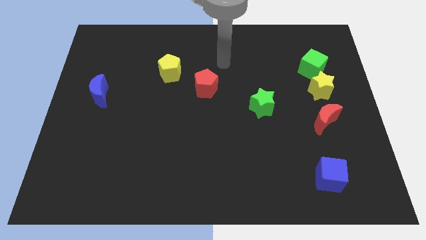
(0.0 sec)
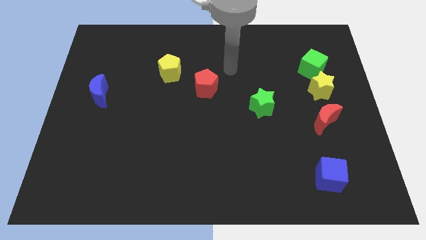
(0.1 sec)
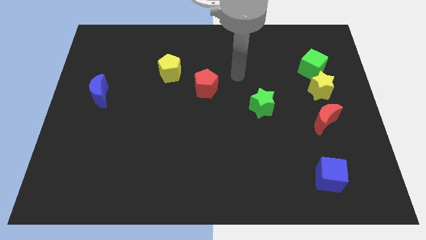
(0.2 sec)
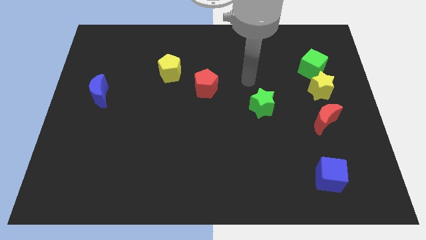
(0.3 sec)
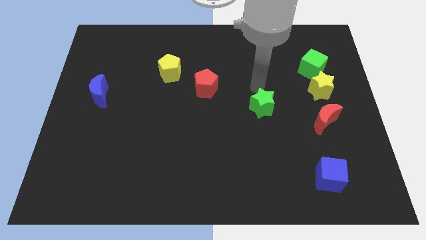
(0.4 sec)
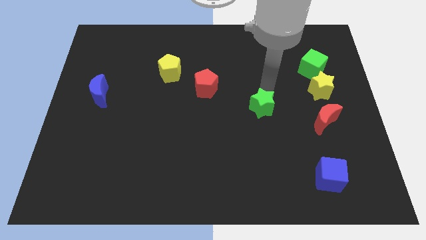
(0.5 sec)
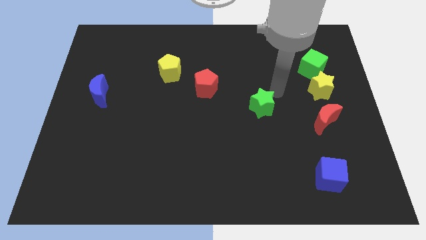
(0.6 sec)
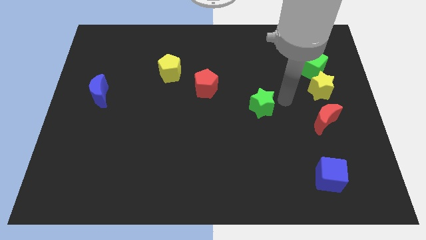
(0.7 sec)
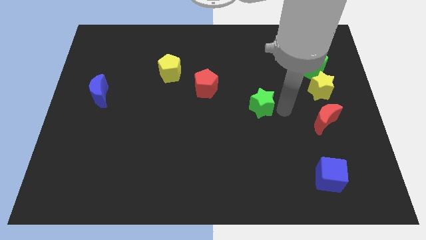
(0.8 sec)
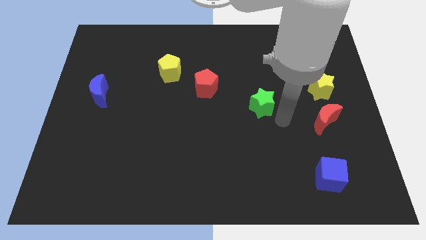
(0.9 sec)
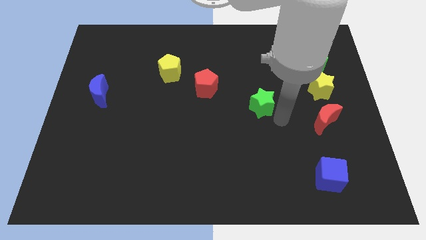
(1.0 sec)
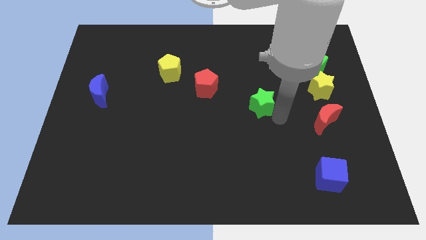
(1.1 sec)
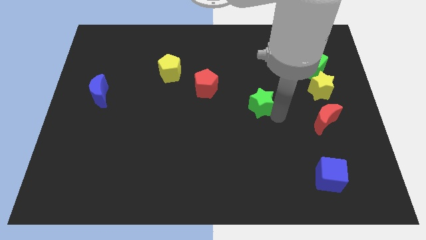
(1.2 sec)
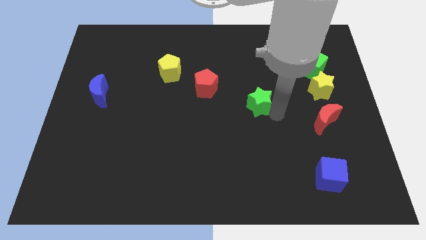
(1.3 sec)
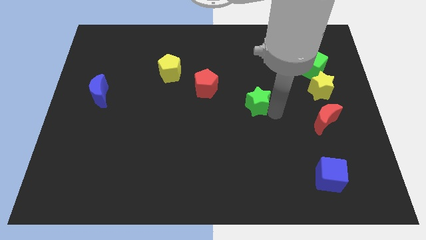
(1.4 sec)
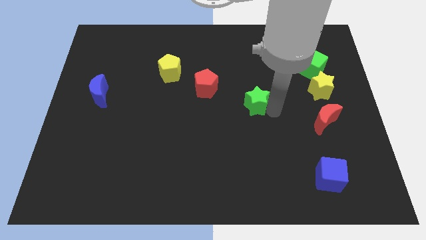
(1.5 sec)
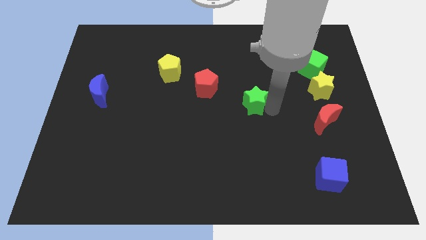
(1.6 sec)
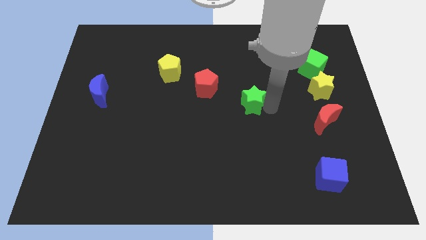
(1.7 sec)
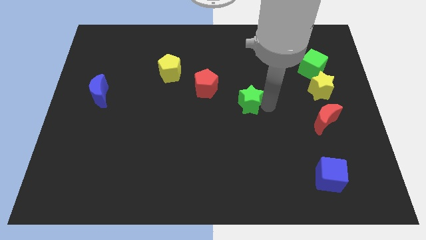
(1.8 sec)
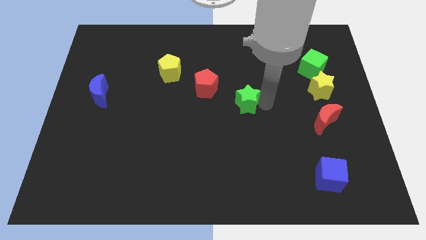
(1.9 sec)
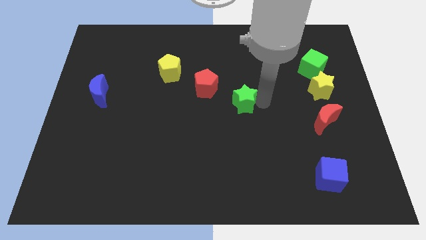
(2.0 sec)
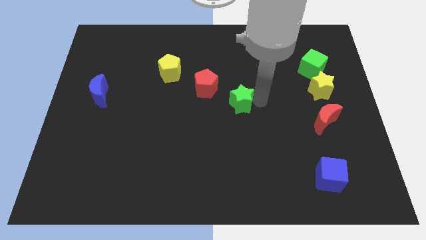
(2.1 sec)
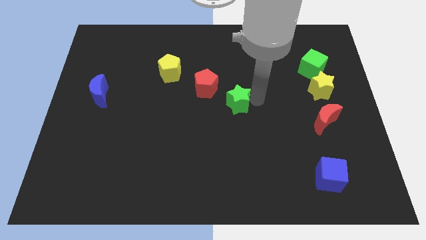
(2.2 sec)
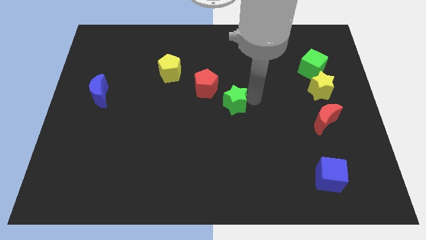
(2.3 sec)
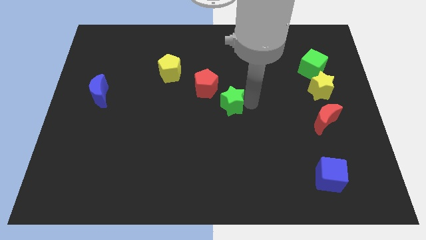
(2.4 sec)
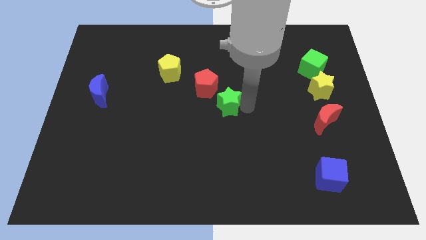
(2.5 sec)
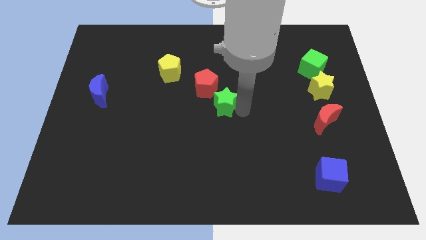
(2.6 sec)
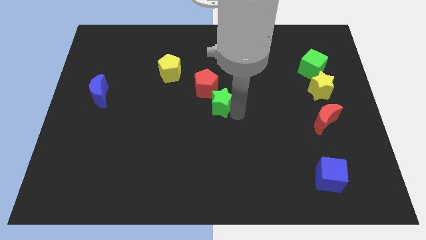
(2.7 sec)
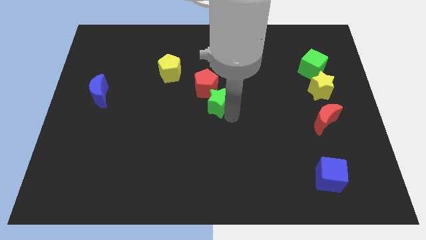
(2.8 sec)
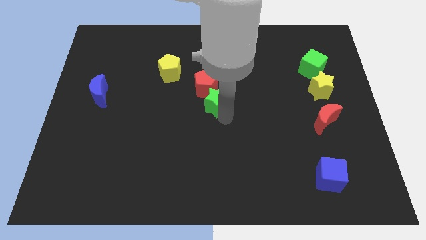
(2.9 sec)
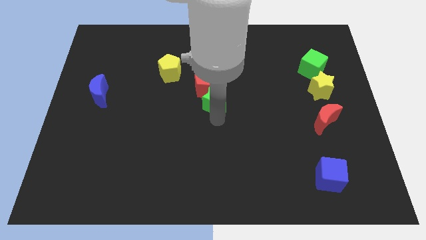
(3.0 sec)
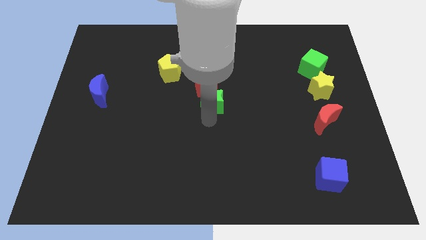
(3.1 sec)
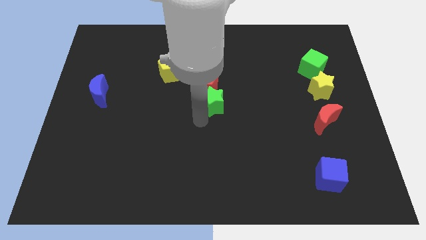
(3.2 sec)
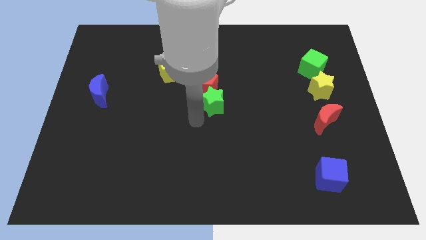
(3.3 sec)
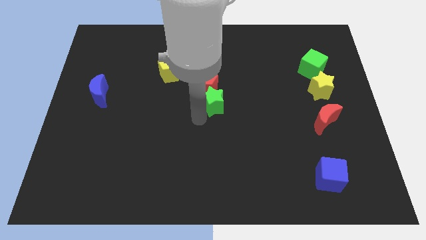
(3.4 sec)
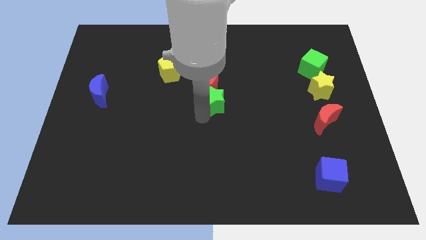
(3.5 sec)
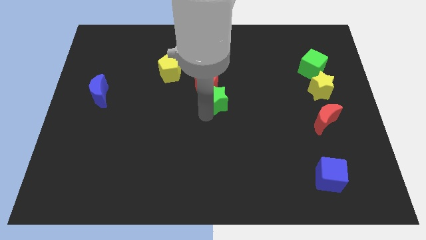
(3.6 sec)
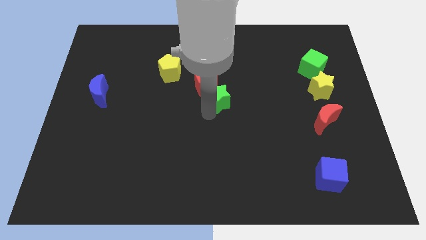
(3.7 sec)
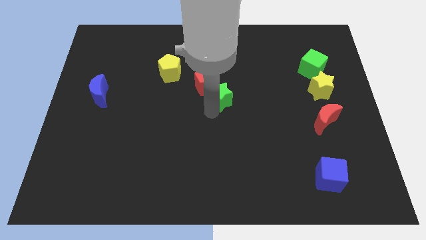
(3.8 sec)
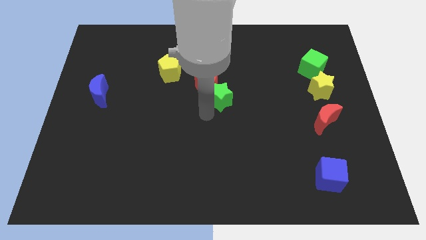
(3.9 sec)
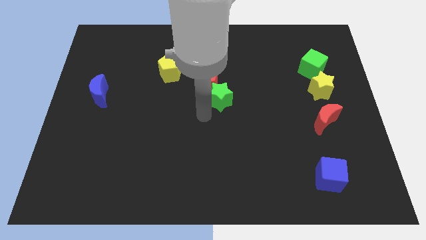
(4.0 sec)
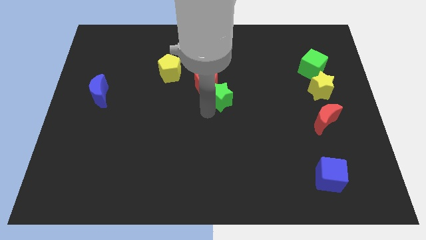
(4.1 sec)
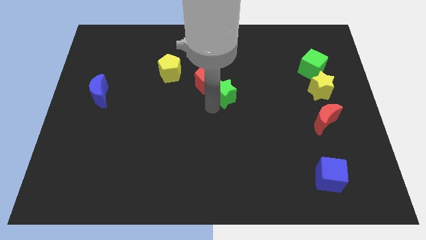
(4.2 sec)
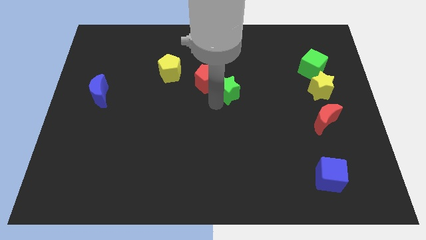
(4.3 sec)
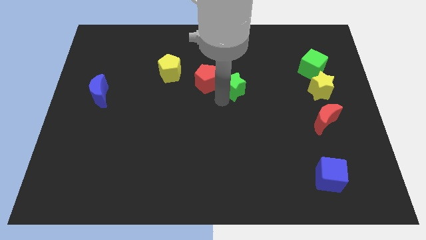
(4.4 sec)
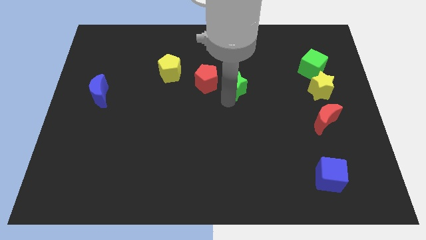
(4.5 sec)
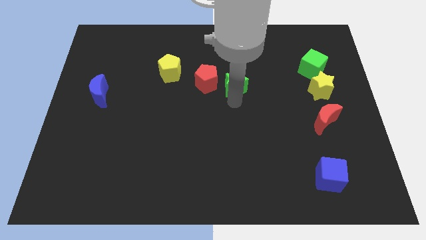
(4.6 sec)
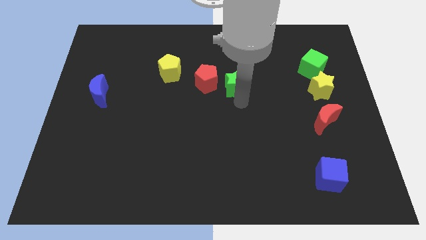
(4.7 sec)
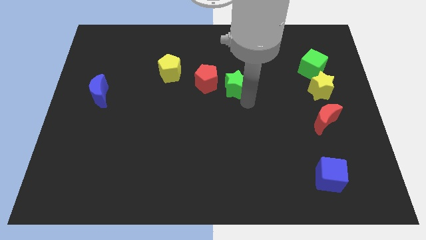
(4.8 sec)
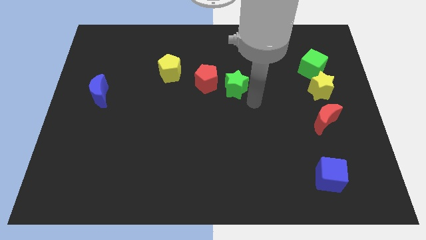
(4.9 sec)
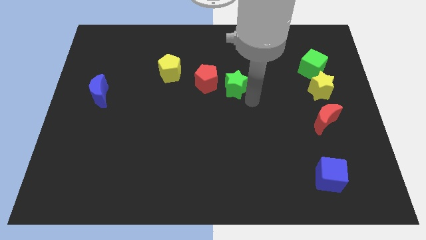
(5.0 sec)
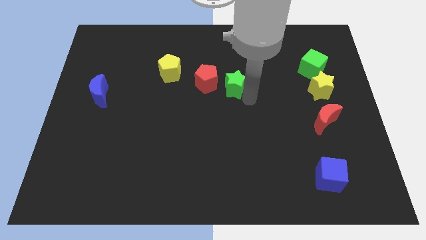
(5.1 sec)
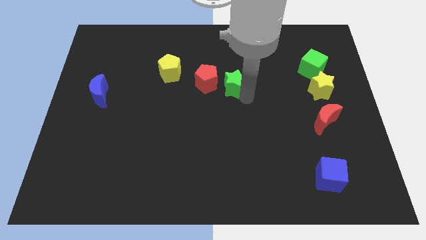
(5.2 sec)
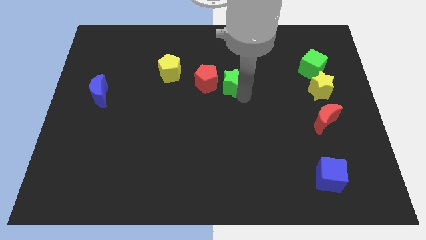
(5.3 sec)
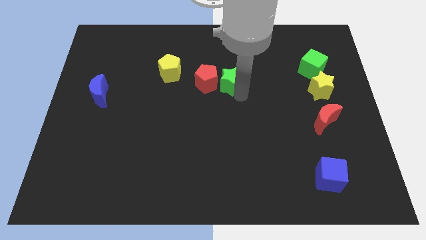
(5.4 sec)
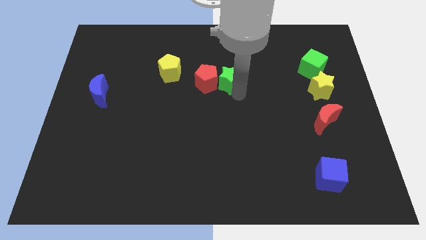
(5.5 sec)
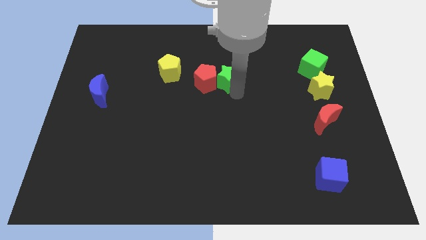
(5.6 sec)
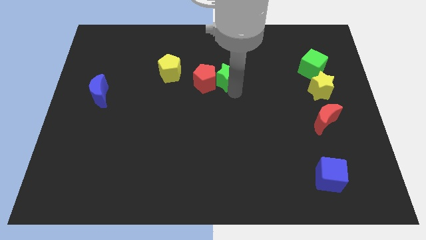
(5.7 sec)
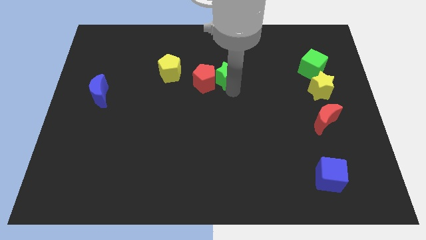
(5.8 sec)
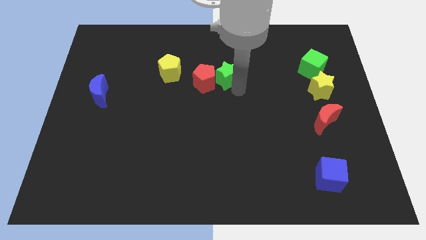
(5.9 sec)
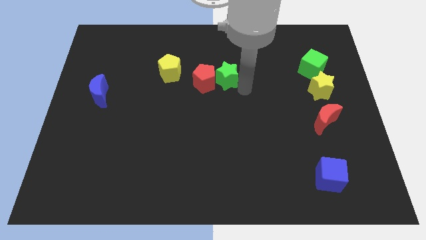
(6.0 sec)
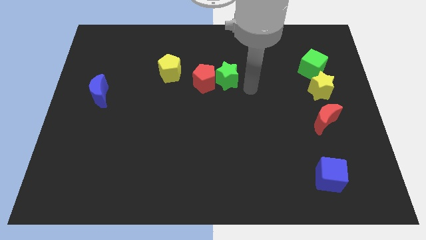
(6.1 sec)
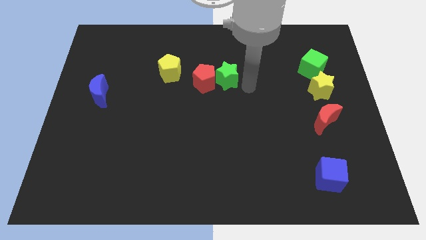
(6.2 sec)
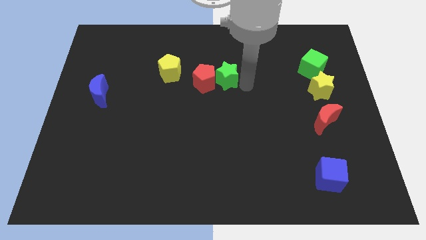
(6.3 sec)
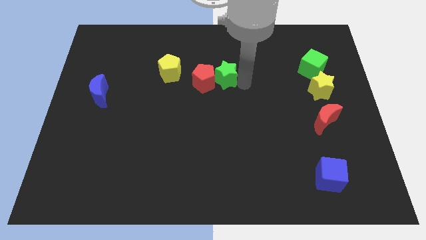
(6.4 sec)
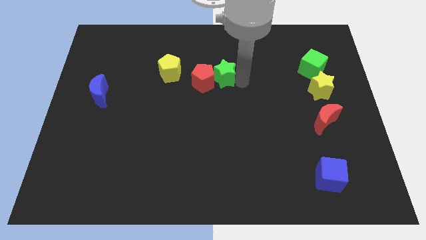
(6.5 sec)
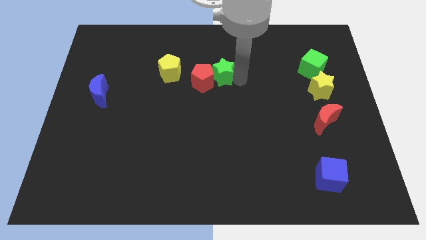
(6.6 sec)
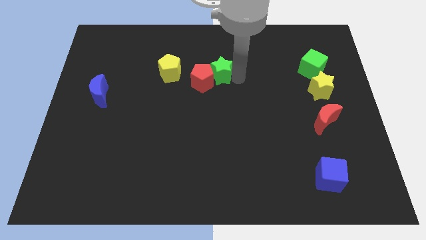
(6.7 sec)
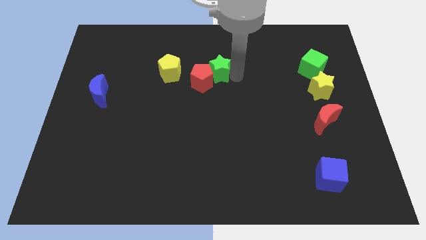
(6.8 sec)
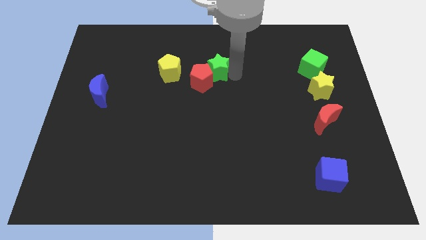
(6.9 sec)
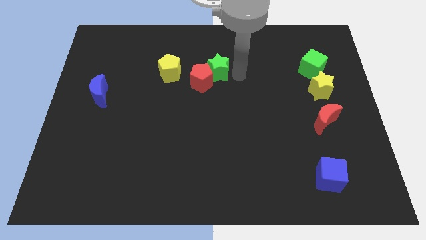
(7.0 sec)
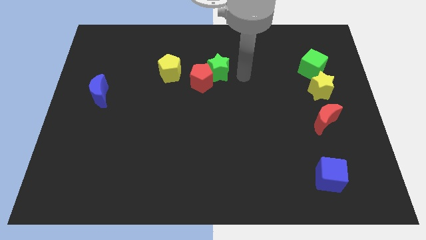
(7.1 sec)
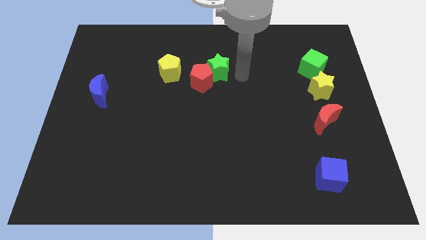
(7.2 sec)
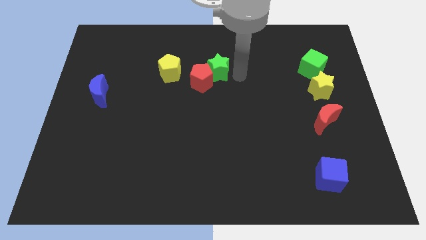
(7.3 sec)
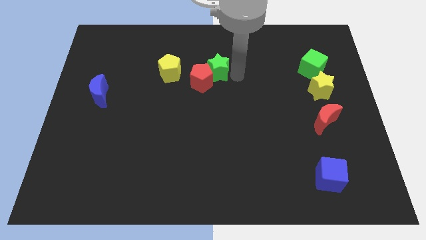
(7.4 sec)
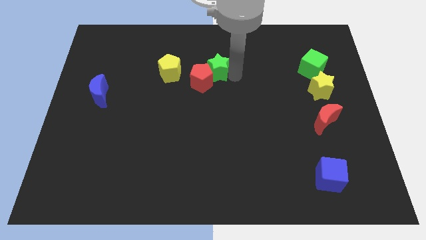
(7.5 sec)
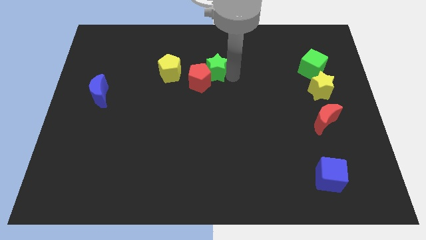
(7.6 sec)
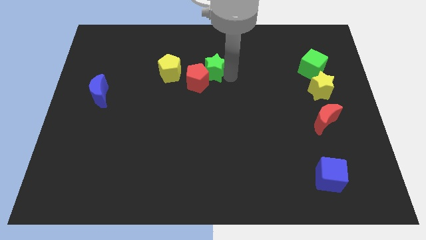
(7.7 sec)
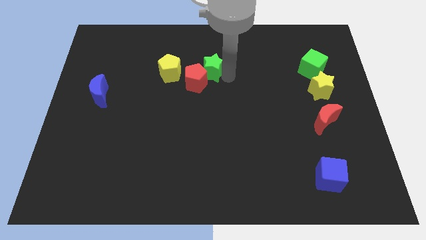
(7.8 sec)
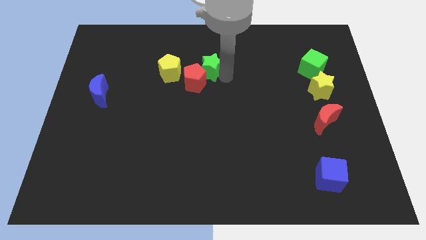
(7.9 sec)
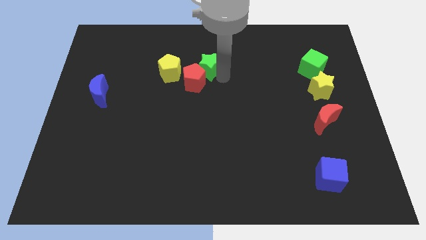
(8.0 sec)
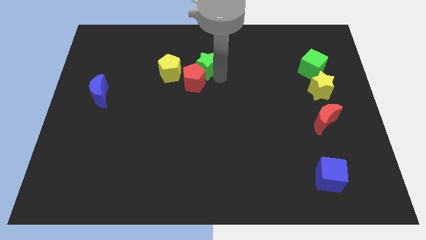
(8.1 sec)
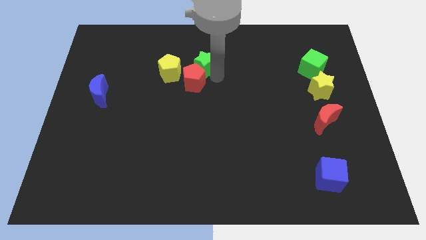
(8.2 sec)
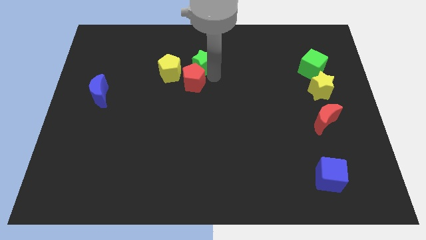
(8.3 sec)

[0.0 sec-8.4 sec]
move the green star to the top right of the yellow pentagon
